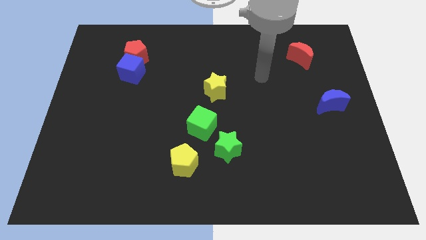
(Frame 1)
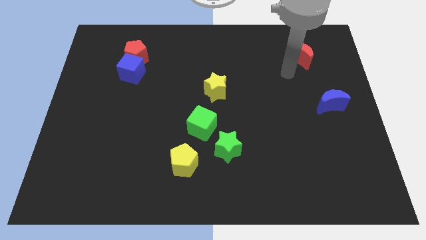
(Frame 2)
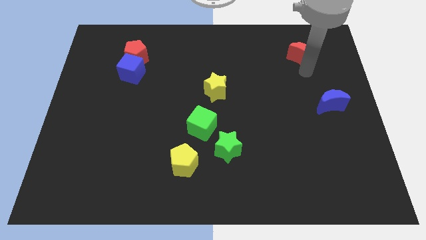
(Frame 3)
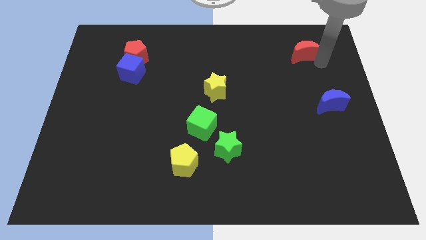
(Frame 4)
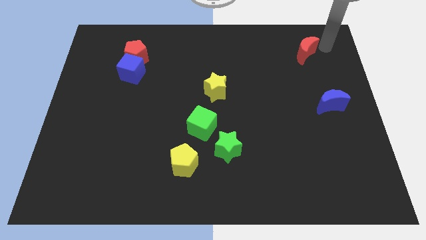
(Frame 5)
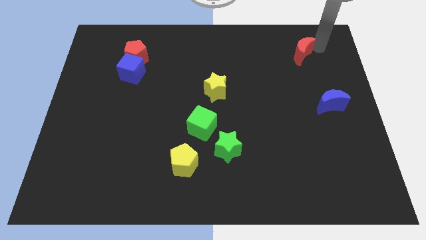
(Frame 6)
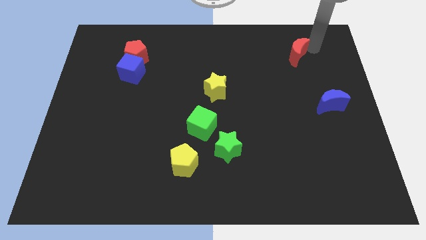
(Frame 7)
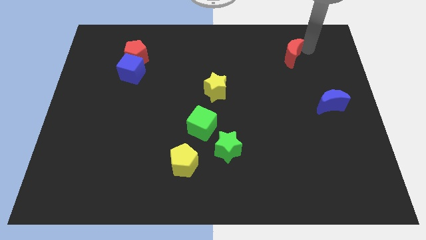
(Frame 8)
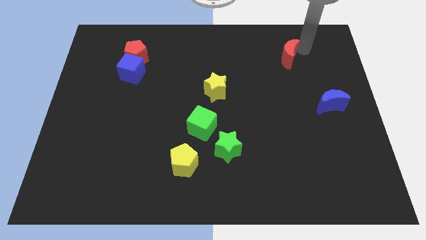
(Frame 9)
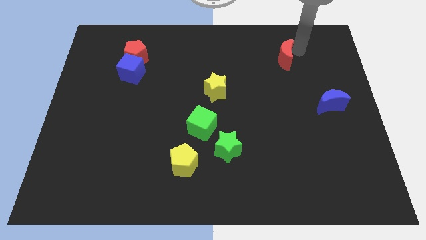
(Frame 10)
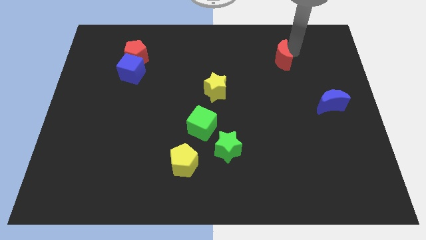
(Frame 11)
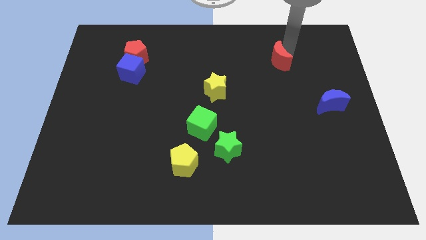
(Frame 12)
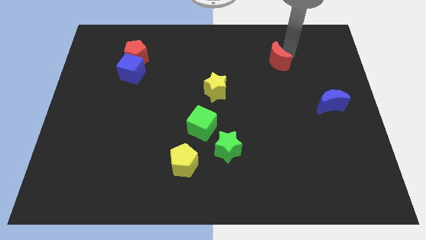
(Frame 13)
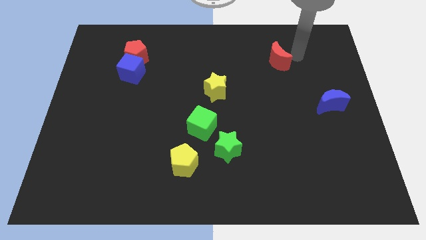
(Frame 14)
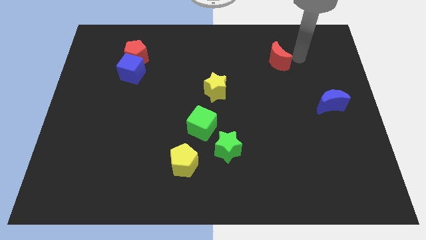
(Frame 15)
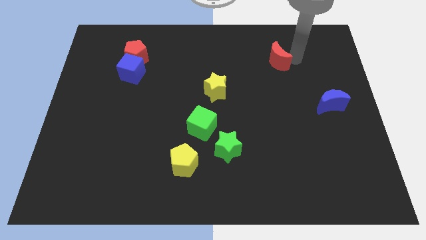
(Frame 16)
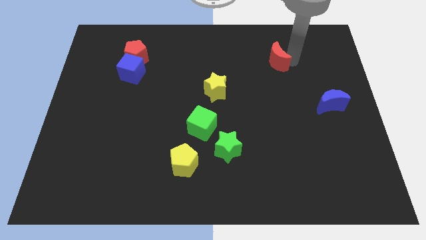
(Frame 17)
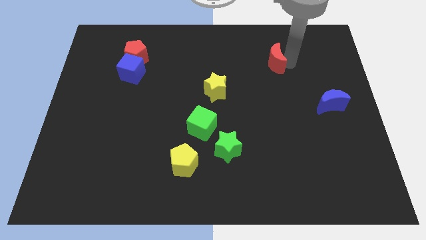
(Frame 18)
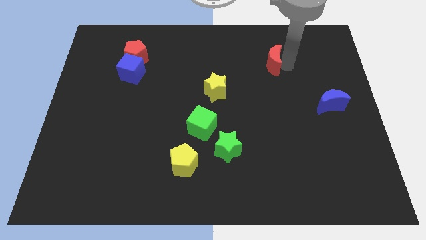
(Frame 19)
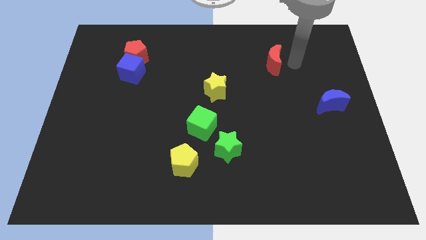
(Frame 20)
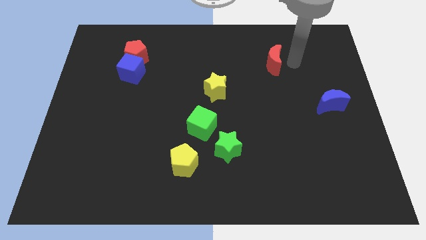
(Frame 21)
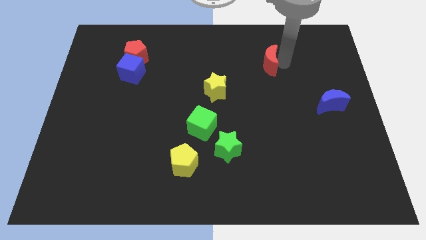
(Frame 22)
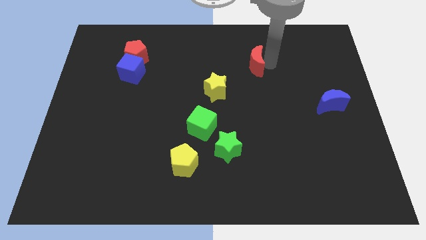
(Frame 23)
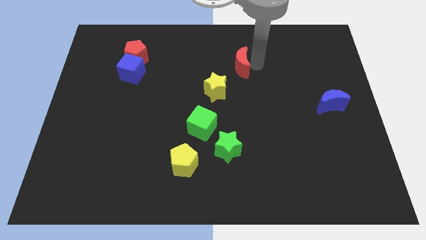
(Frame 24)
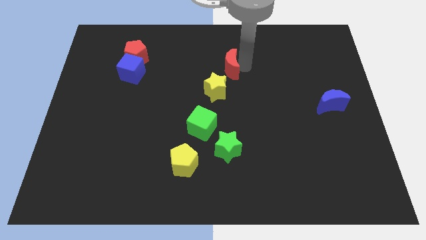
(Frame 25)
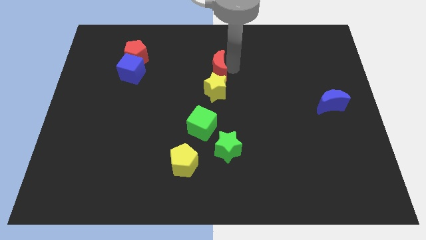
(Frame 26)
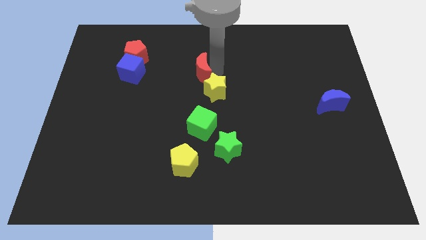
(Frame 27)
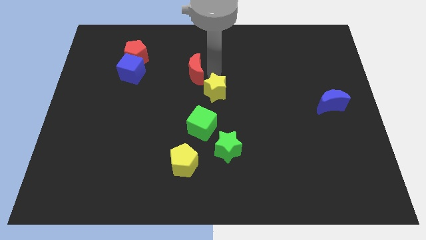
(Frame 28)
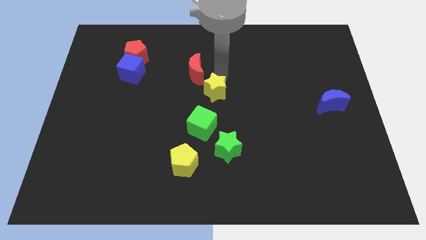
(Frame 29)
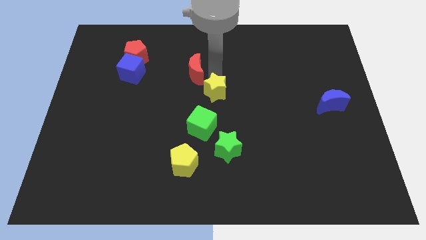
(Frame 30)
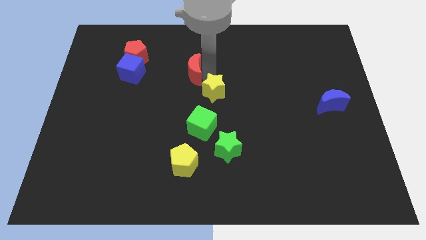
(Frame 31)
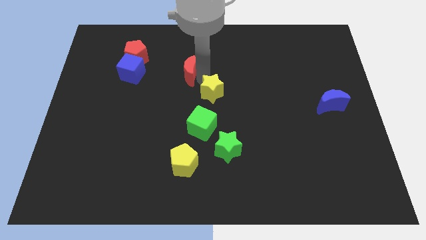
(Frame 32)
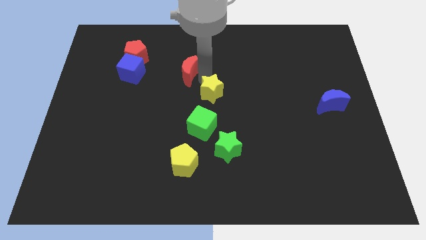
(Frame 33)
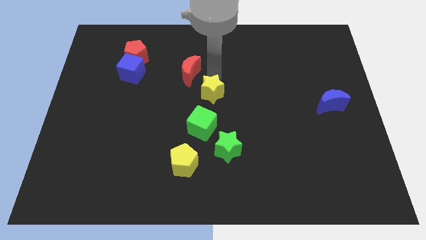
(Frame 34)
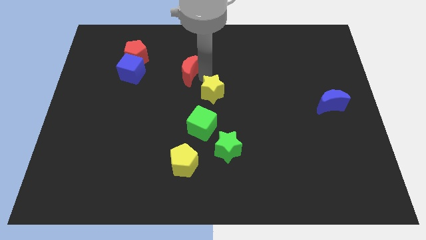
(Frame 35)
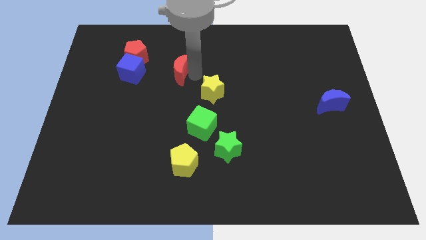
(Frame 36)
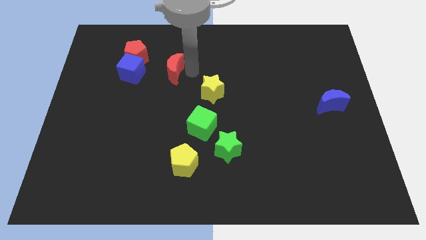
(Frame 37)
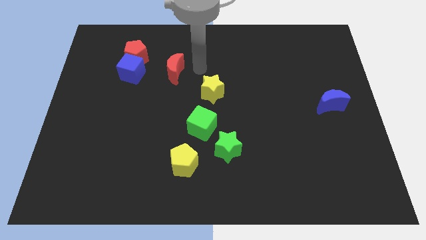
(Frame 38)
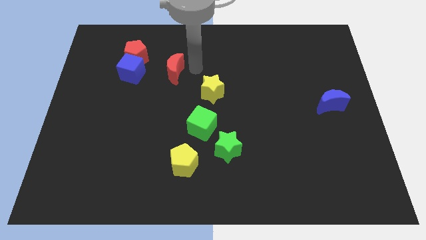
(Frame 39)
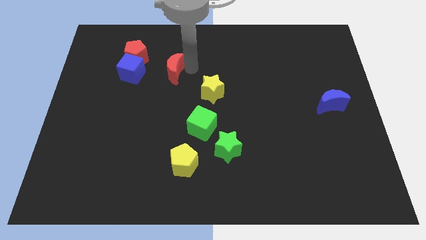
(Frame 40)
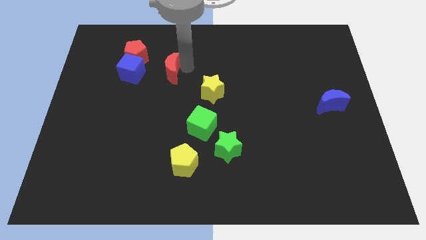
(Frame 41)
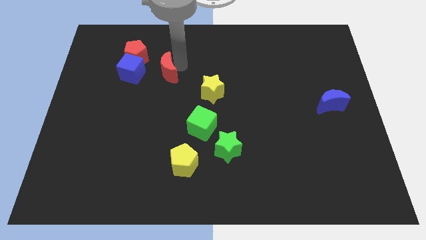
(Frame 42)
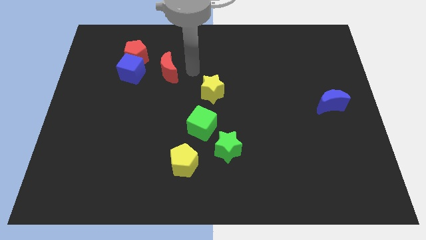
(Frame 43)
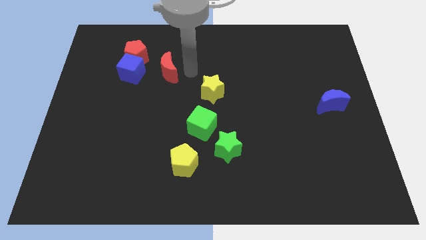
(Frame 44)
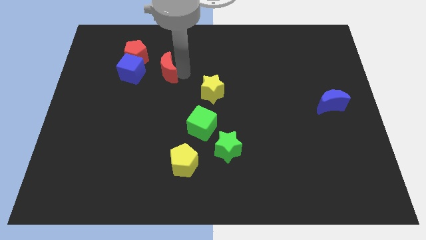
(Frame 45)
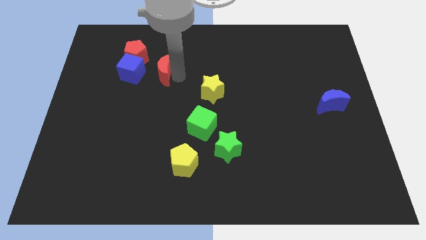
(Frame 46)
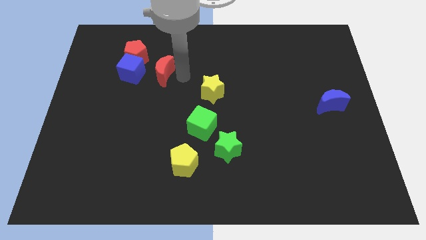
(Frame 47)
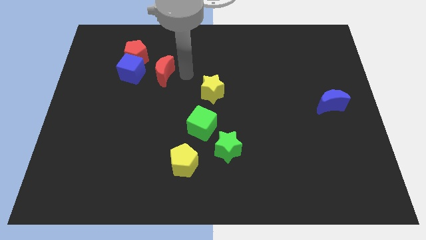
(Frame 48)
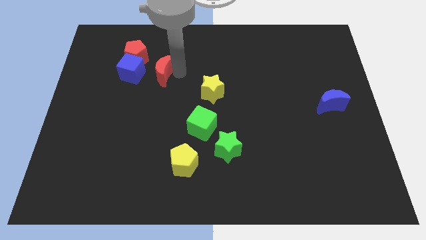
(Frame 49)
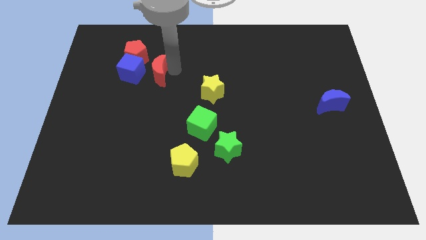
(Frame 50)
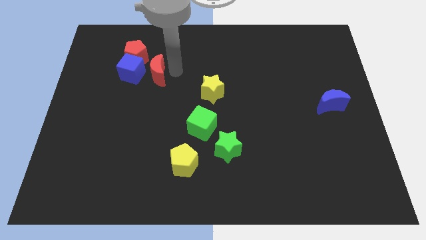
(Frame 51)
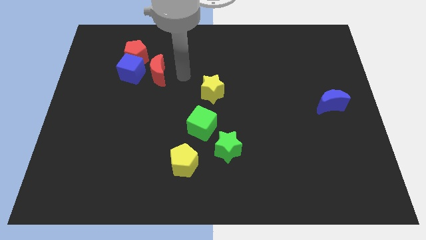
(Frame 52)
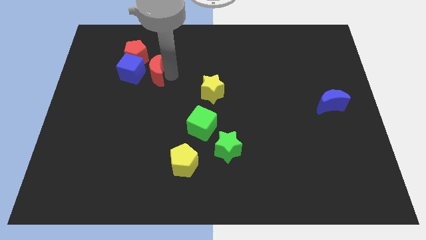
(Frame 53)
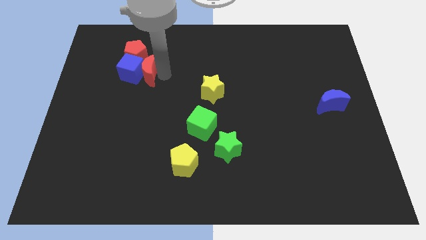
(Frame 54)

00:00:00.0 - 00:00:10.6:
put the red moon next to the blue cube

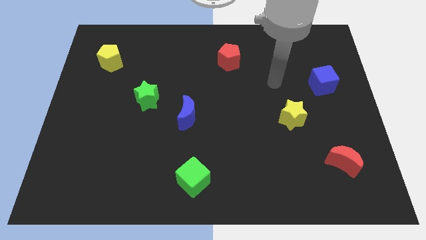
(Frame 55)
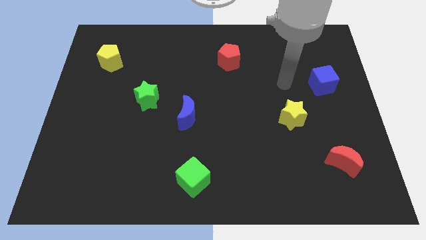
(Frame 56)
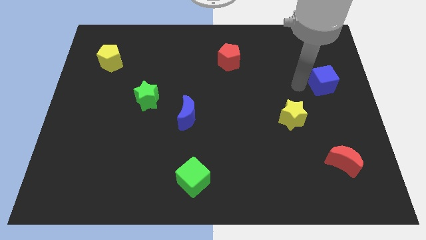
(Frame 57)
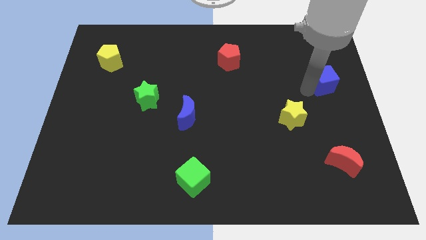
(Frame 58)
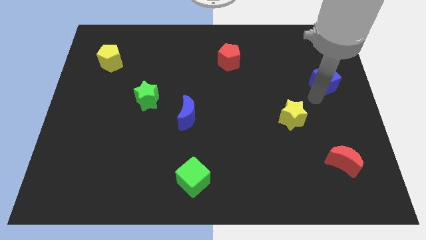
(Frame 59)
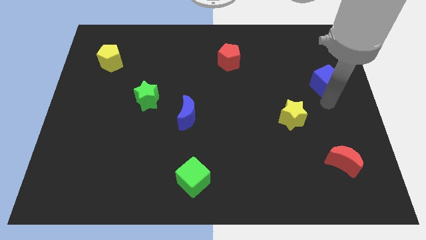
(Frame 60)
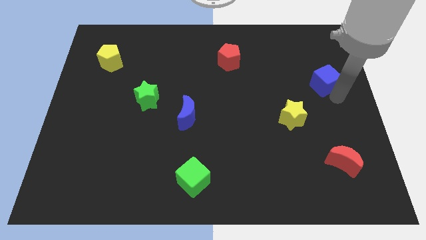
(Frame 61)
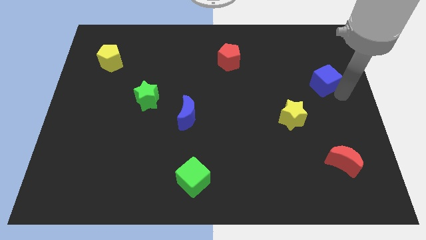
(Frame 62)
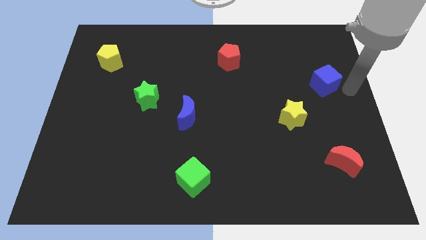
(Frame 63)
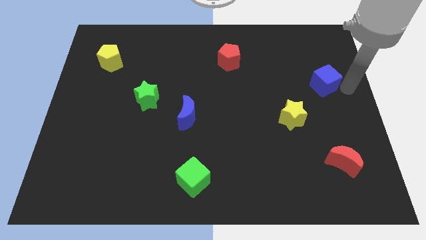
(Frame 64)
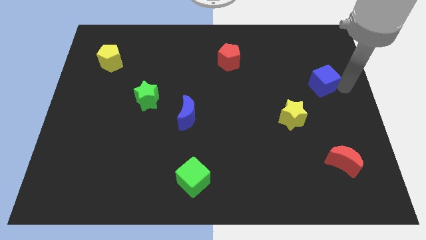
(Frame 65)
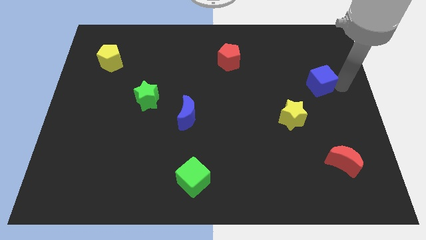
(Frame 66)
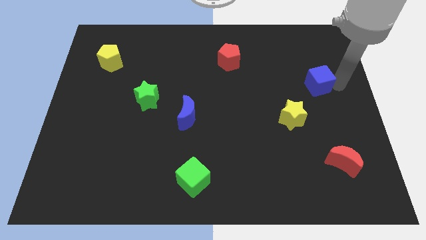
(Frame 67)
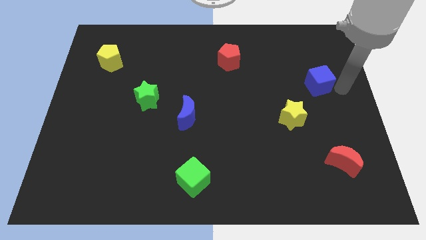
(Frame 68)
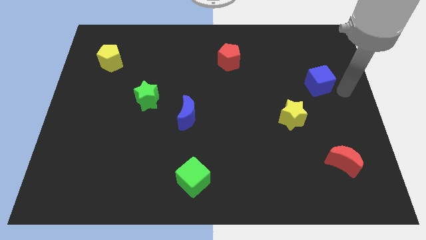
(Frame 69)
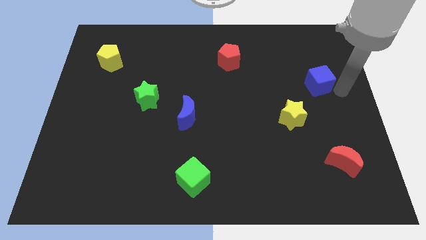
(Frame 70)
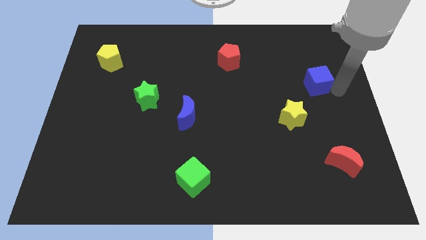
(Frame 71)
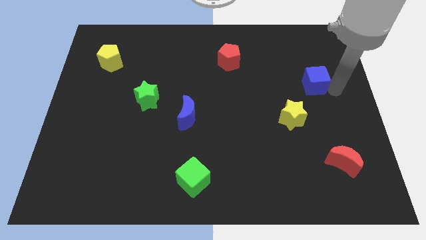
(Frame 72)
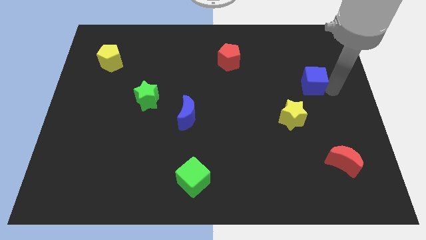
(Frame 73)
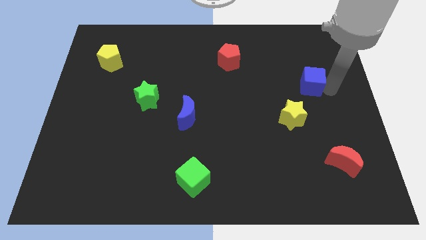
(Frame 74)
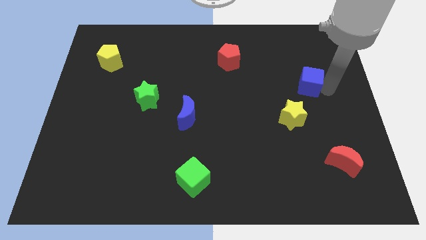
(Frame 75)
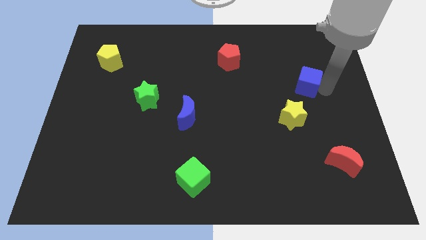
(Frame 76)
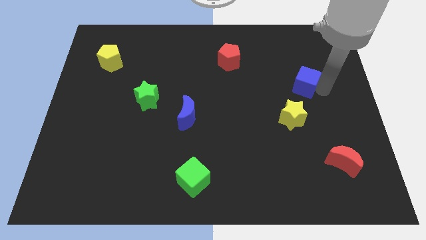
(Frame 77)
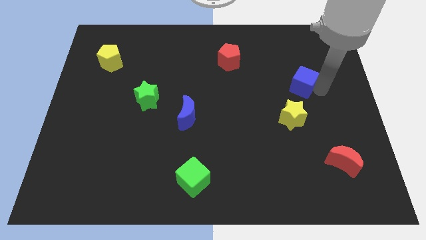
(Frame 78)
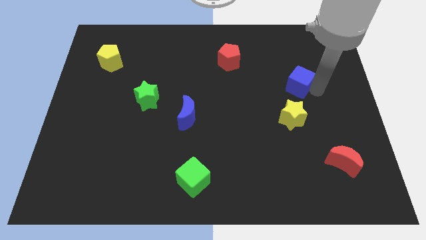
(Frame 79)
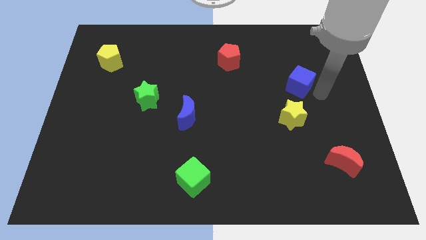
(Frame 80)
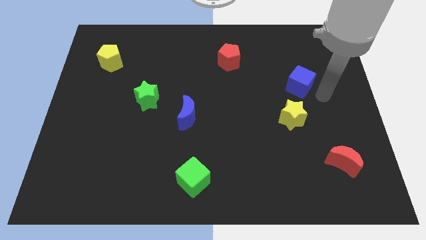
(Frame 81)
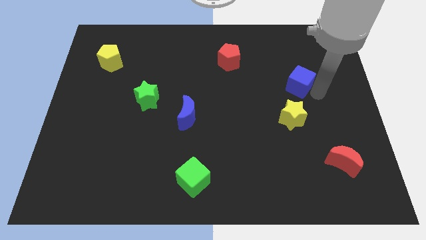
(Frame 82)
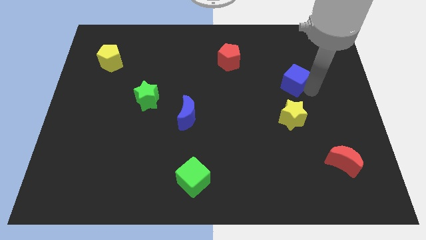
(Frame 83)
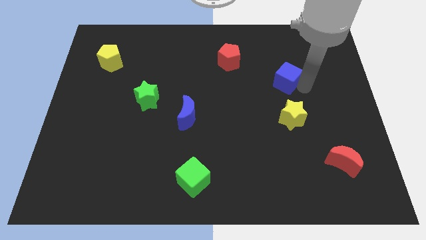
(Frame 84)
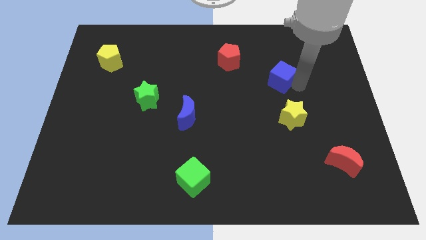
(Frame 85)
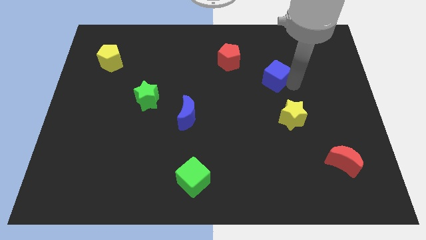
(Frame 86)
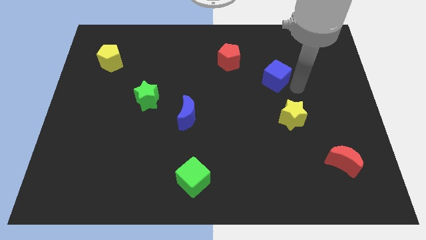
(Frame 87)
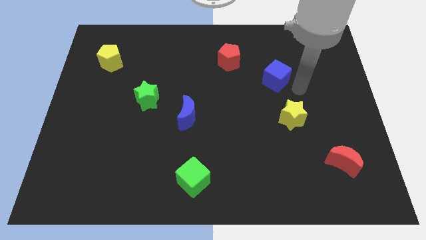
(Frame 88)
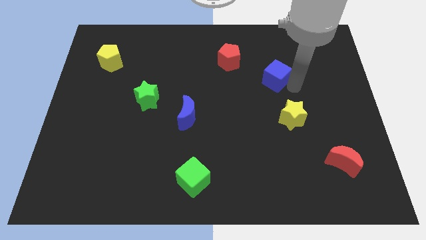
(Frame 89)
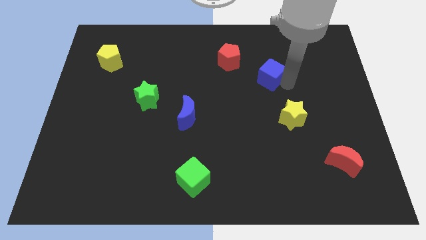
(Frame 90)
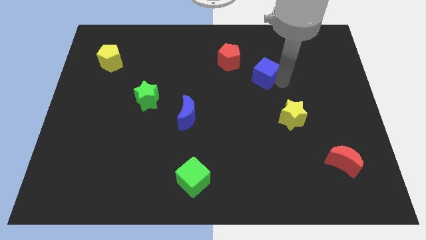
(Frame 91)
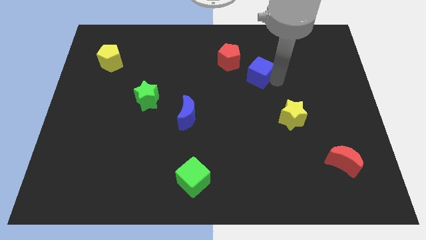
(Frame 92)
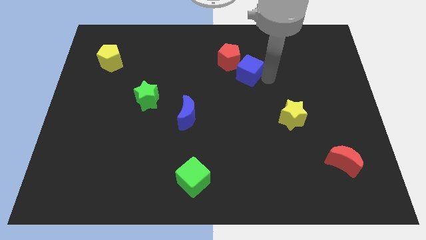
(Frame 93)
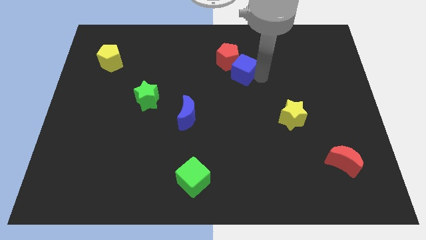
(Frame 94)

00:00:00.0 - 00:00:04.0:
slide the blue cube to the red pentagon
